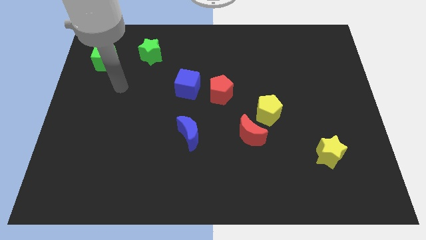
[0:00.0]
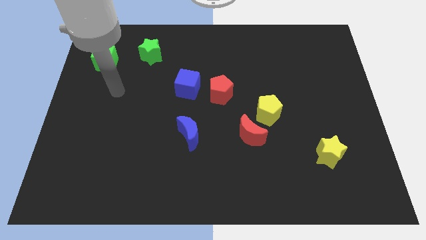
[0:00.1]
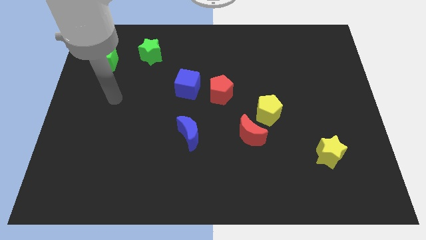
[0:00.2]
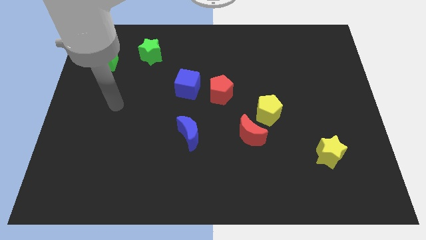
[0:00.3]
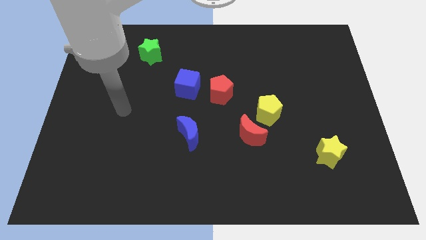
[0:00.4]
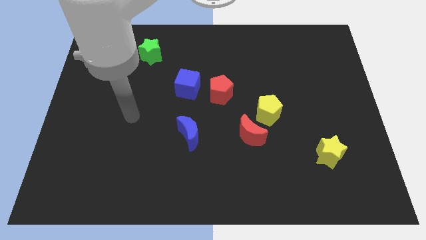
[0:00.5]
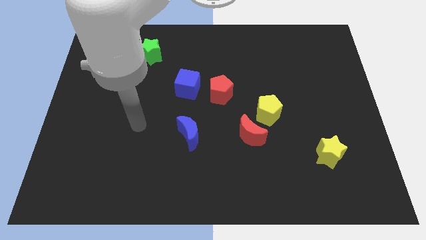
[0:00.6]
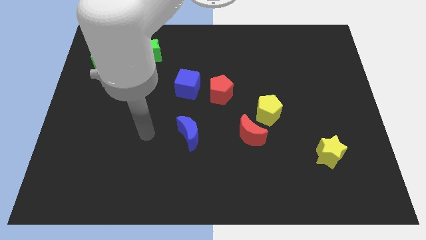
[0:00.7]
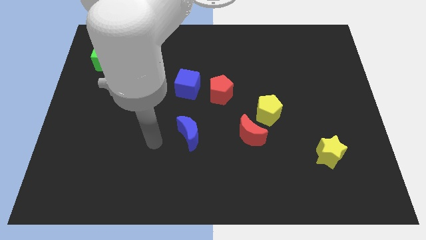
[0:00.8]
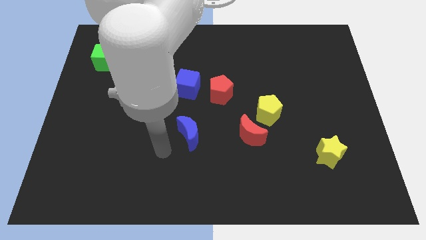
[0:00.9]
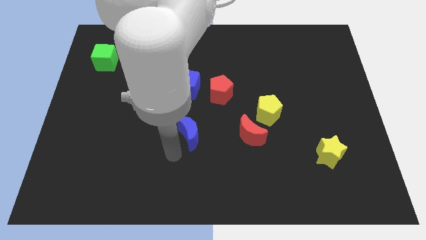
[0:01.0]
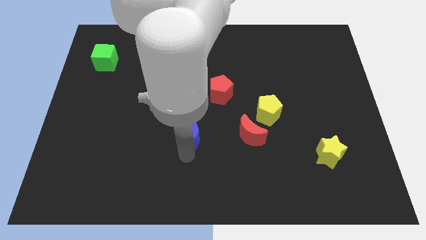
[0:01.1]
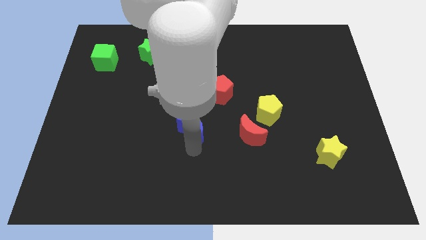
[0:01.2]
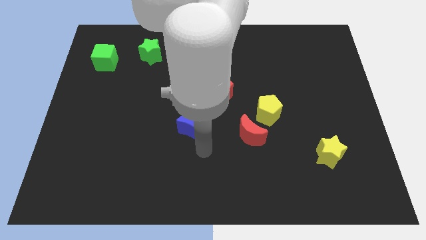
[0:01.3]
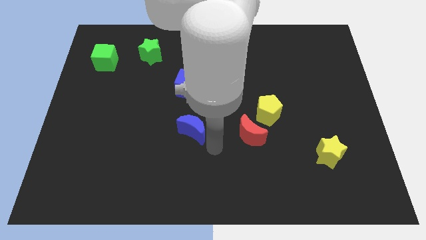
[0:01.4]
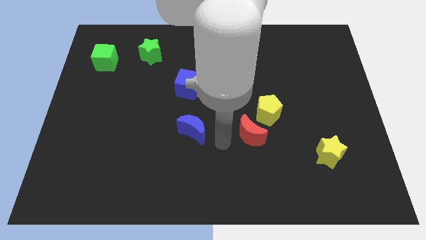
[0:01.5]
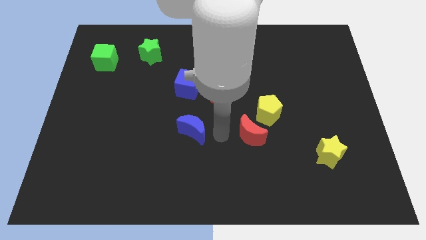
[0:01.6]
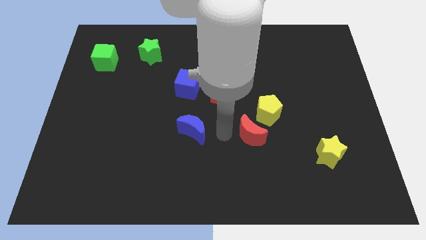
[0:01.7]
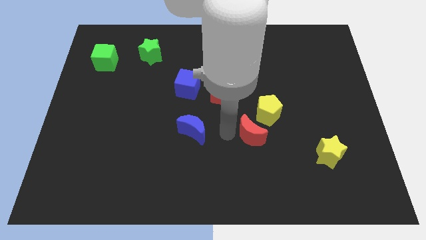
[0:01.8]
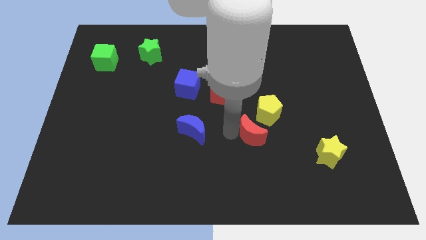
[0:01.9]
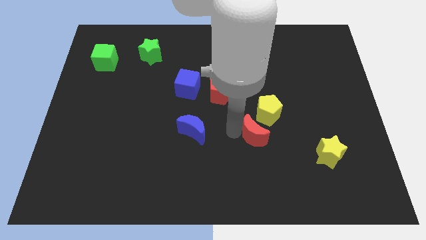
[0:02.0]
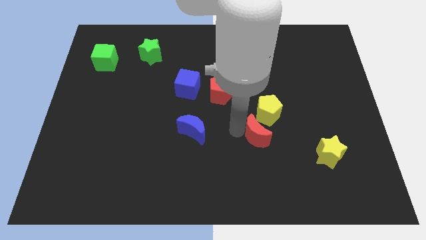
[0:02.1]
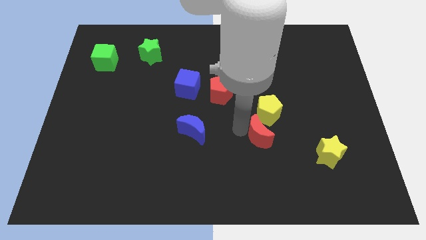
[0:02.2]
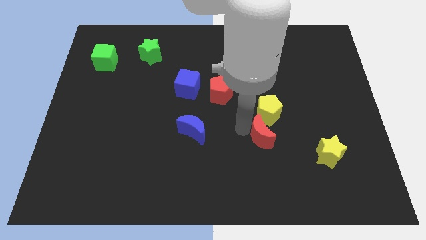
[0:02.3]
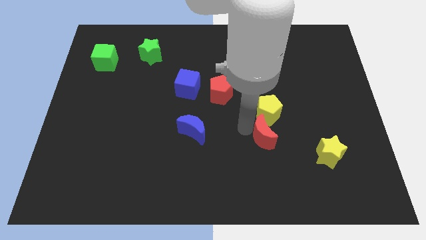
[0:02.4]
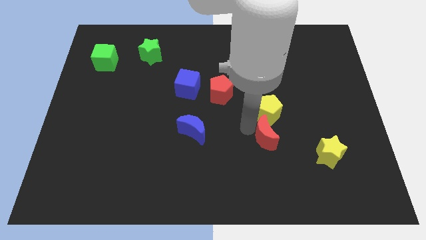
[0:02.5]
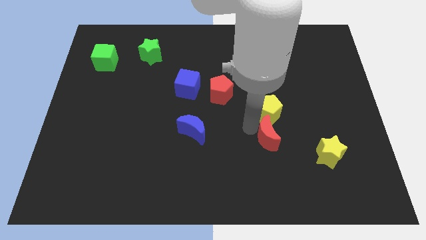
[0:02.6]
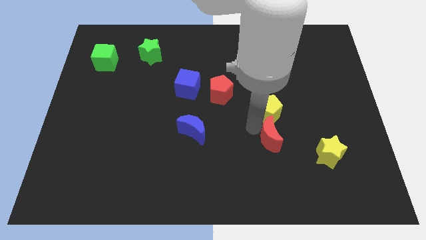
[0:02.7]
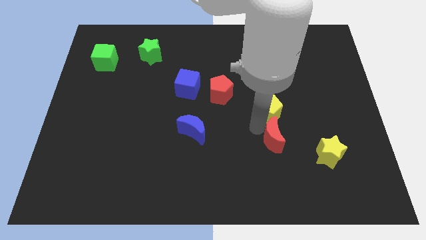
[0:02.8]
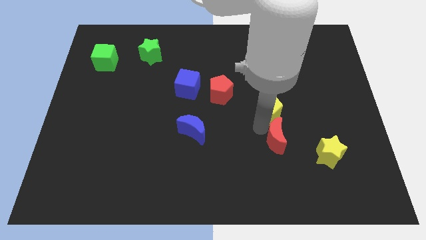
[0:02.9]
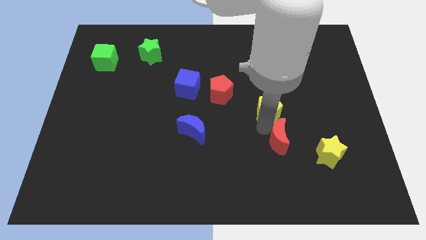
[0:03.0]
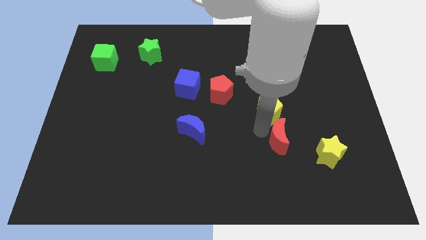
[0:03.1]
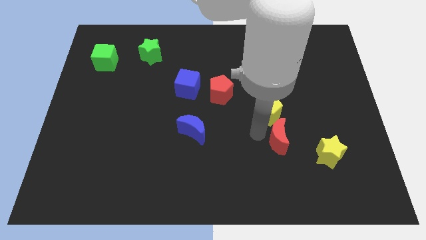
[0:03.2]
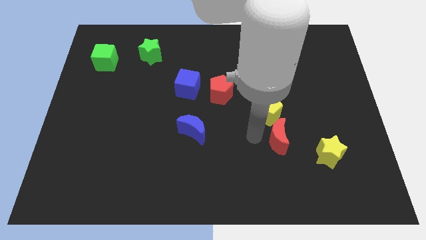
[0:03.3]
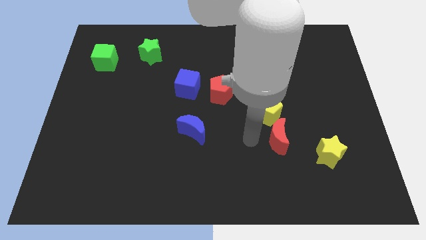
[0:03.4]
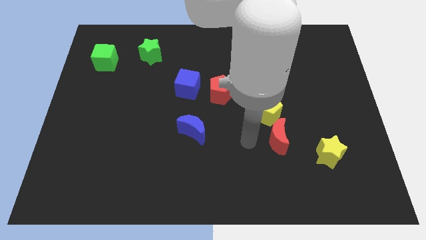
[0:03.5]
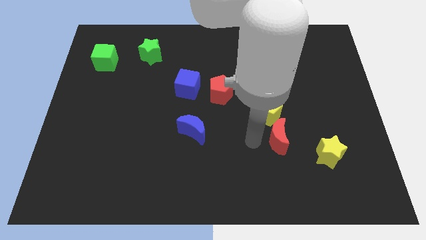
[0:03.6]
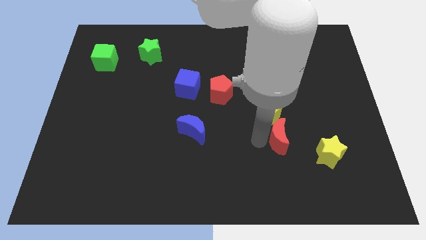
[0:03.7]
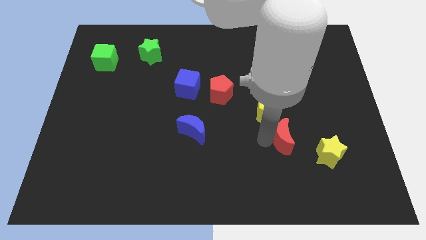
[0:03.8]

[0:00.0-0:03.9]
push the red moon right slightly

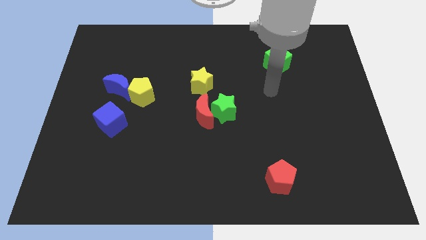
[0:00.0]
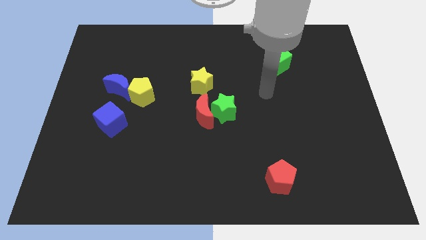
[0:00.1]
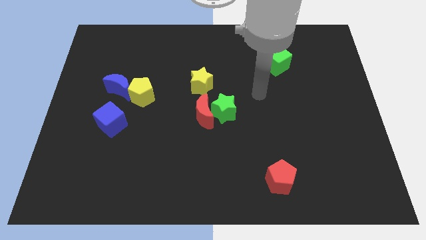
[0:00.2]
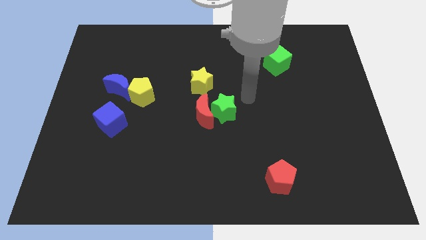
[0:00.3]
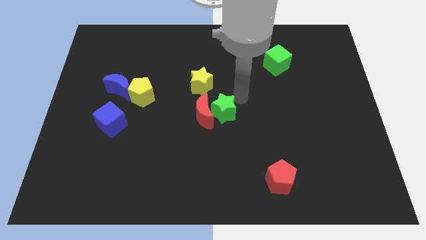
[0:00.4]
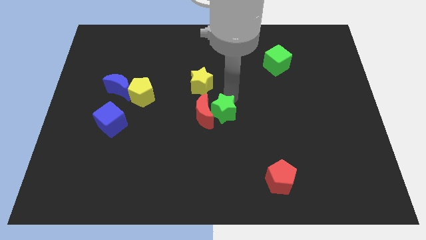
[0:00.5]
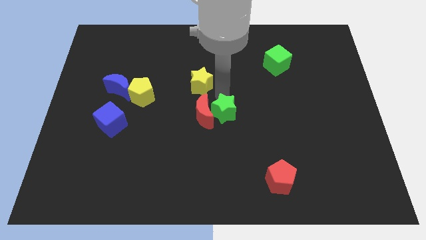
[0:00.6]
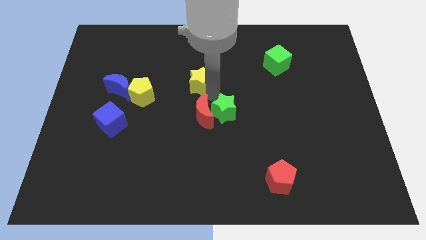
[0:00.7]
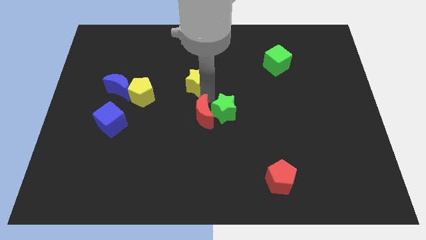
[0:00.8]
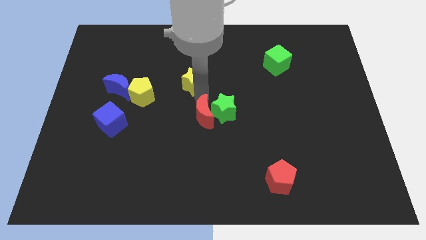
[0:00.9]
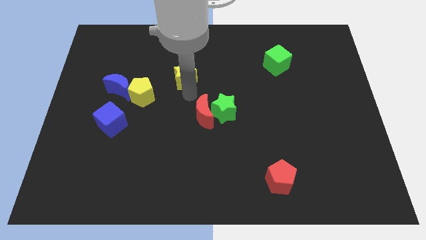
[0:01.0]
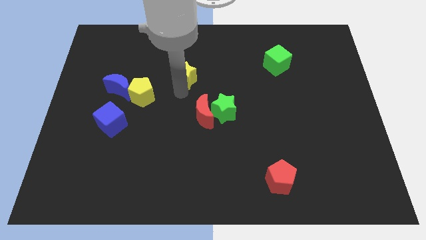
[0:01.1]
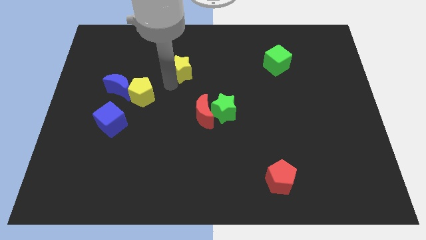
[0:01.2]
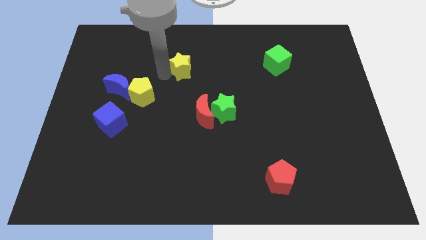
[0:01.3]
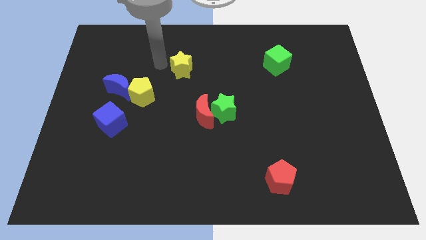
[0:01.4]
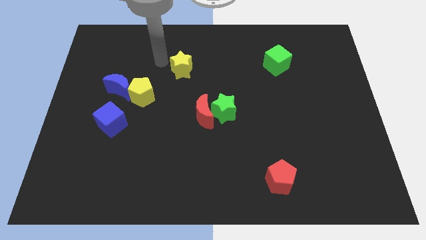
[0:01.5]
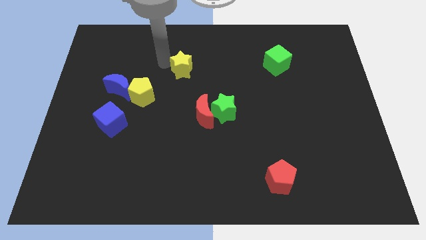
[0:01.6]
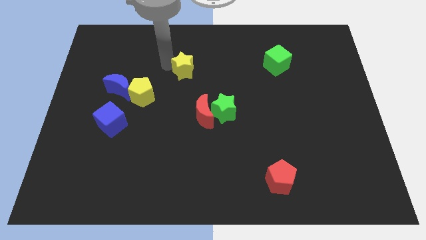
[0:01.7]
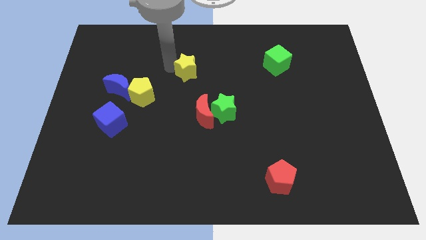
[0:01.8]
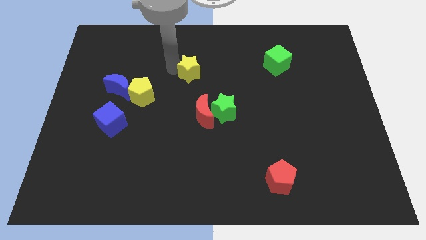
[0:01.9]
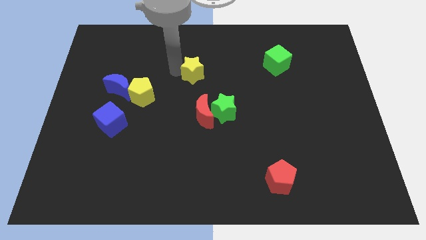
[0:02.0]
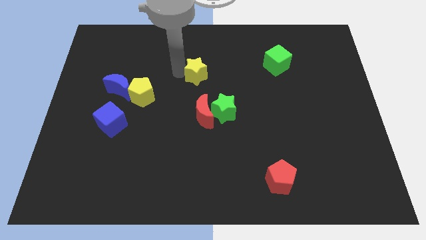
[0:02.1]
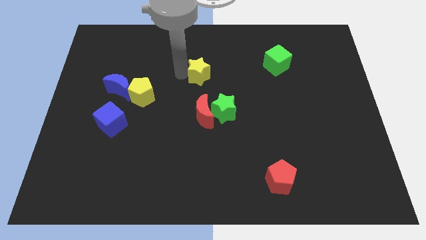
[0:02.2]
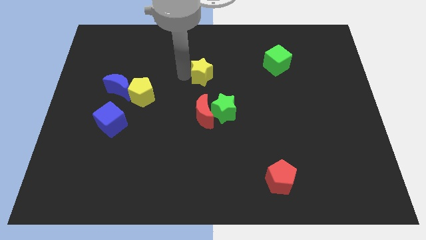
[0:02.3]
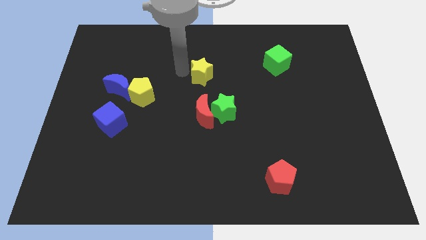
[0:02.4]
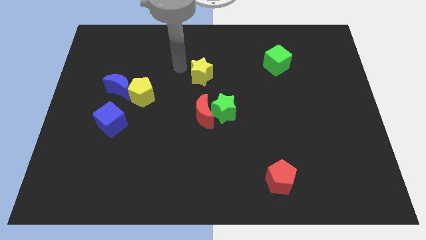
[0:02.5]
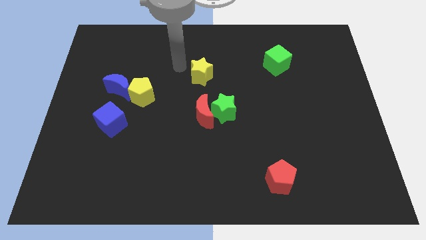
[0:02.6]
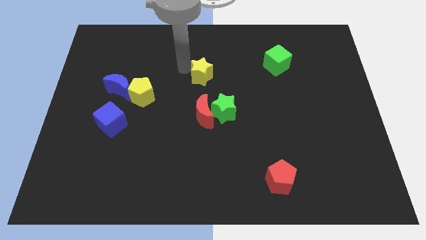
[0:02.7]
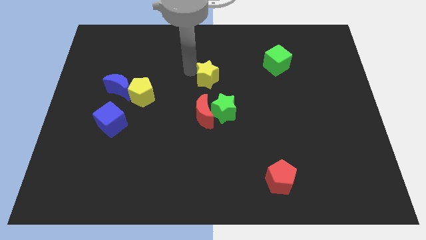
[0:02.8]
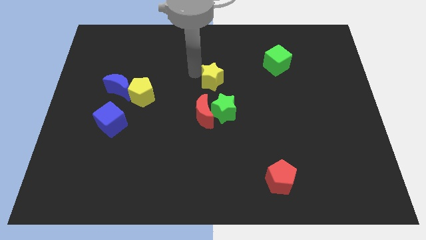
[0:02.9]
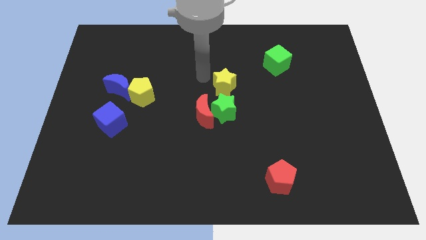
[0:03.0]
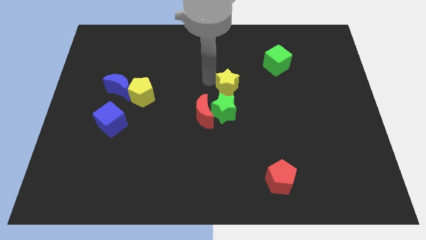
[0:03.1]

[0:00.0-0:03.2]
move the yellow star a little to the right

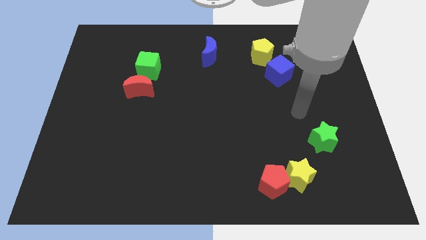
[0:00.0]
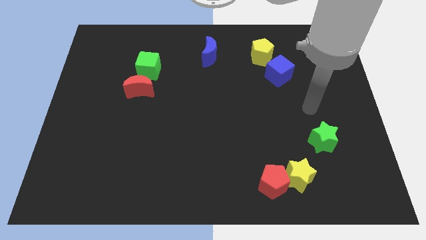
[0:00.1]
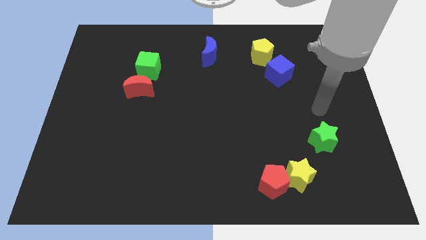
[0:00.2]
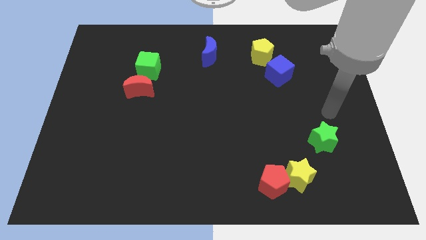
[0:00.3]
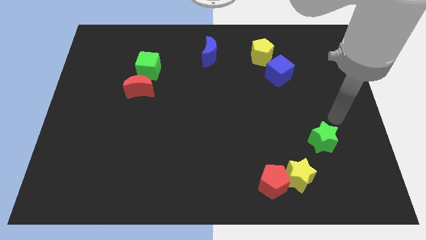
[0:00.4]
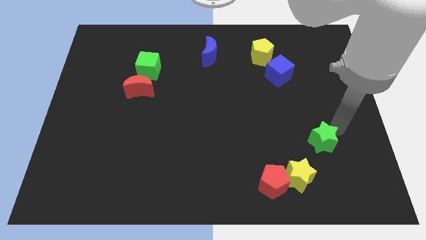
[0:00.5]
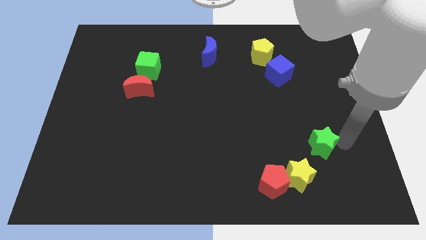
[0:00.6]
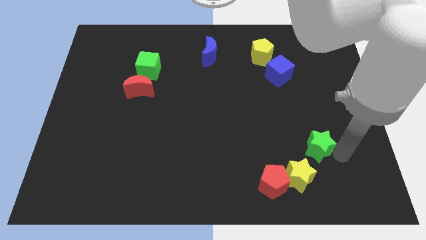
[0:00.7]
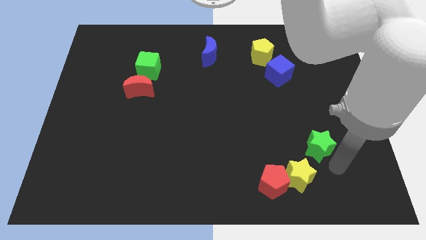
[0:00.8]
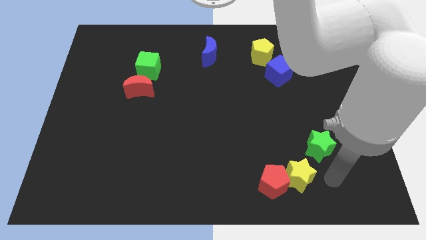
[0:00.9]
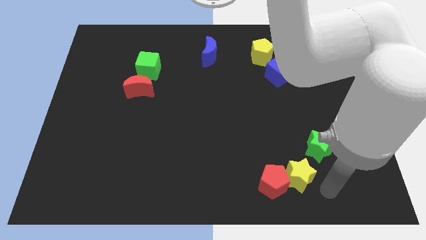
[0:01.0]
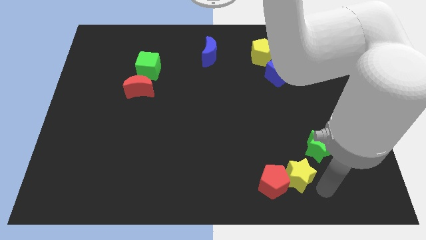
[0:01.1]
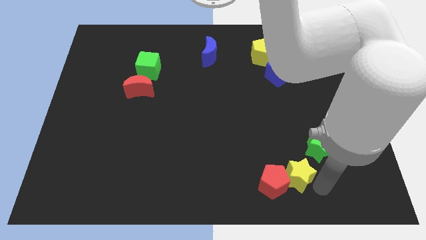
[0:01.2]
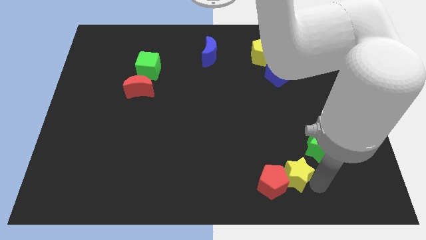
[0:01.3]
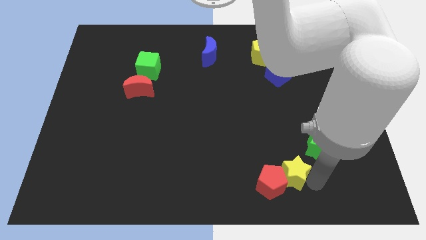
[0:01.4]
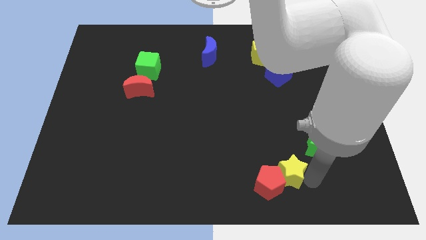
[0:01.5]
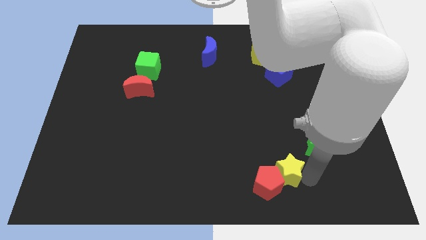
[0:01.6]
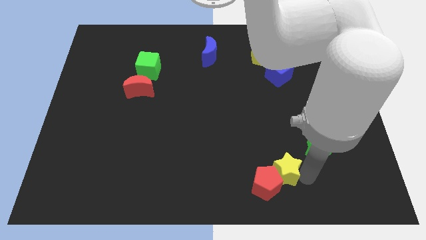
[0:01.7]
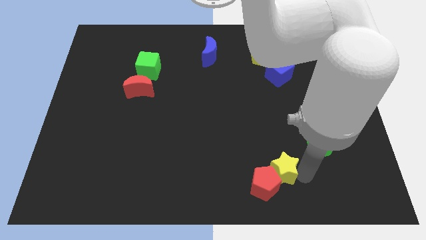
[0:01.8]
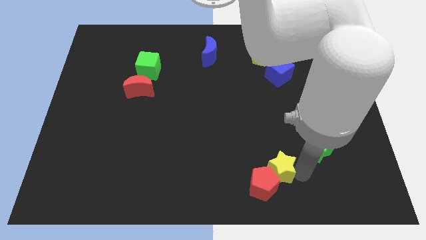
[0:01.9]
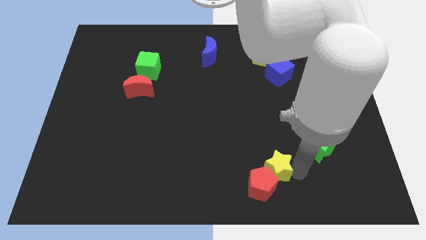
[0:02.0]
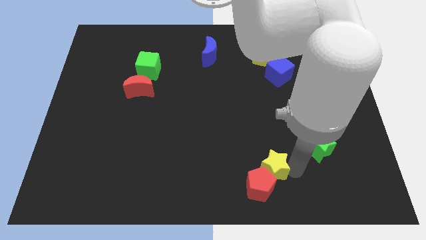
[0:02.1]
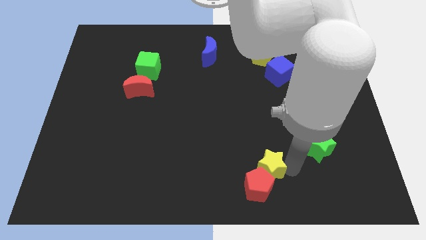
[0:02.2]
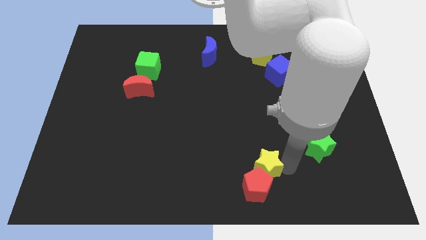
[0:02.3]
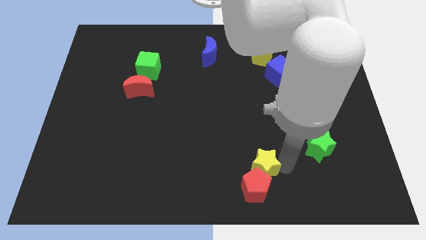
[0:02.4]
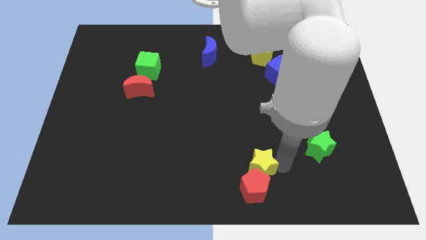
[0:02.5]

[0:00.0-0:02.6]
slide the yellow star a little bit to the left
